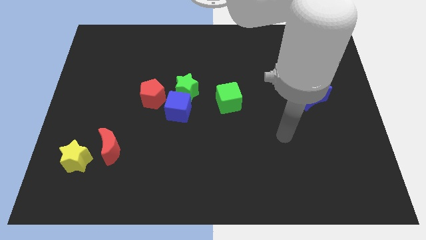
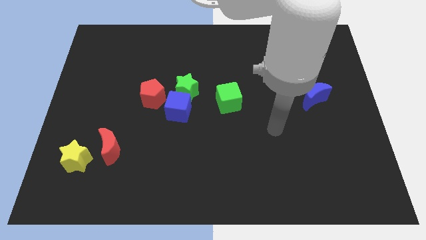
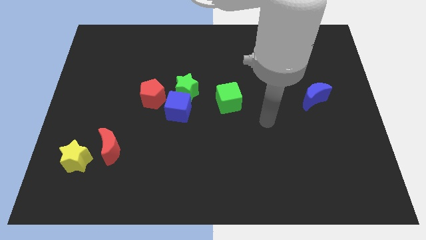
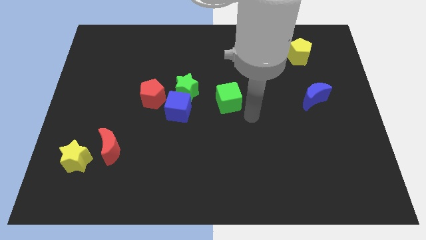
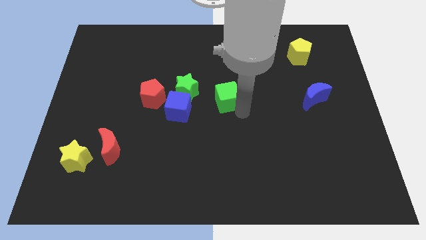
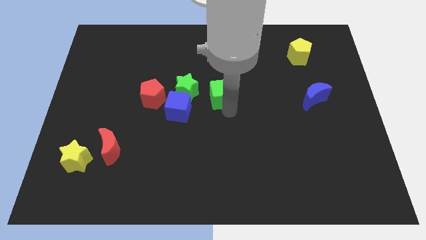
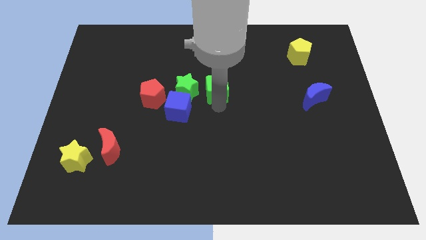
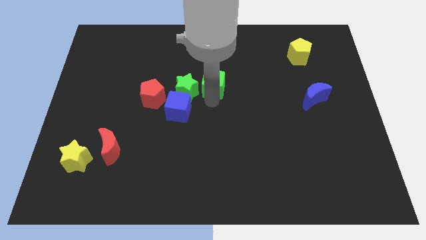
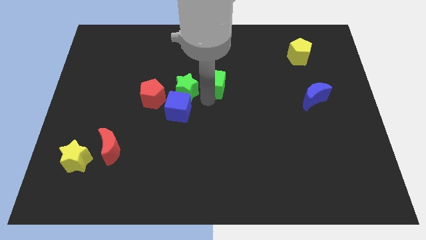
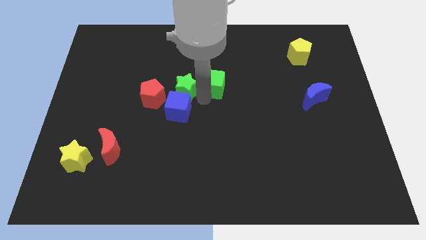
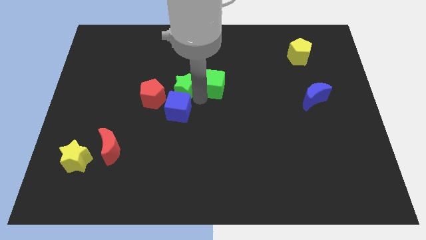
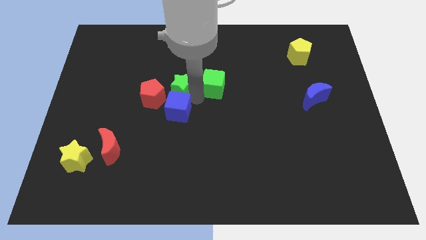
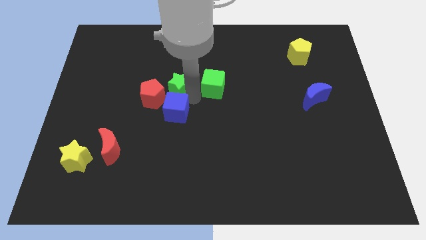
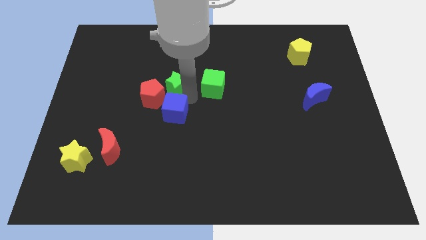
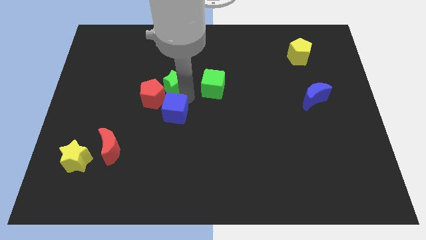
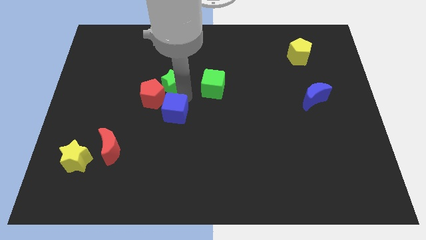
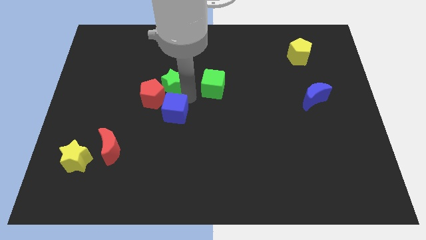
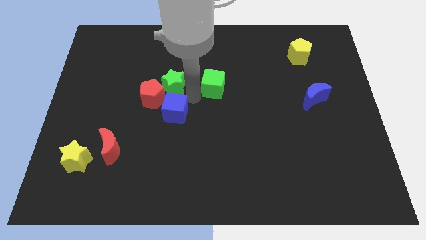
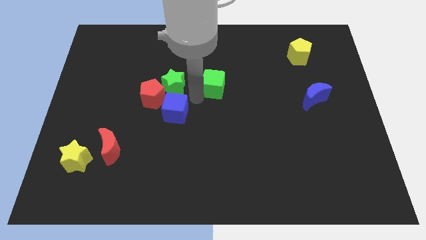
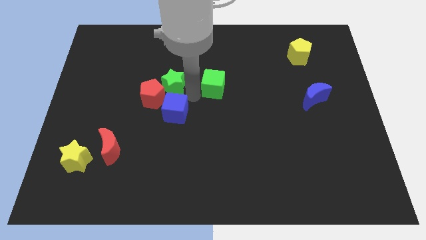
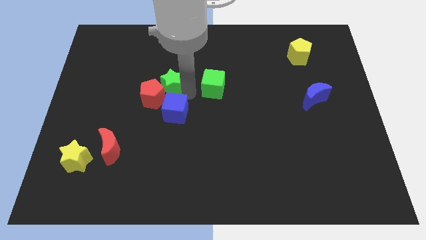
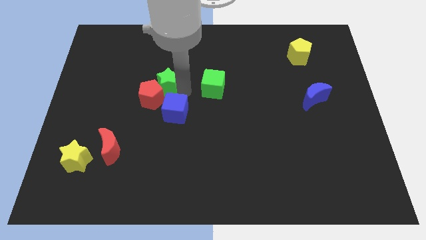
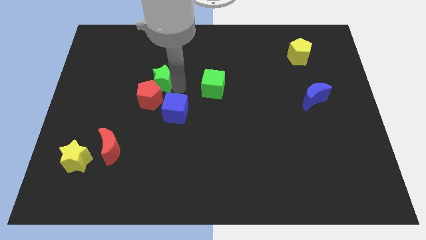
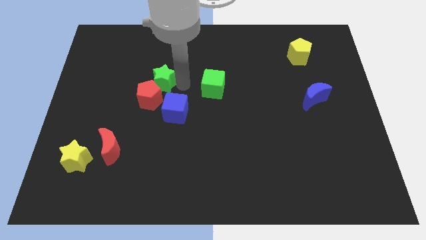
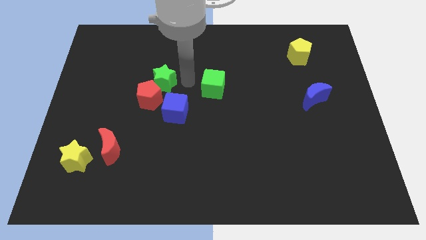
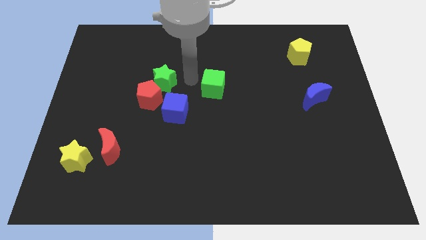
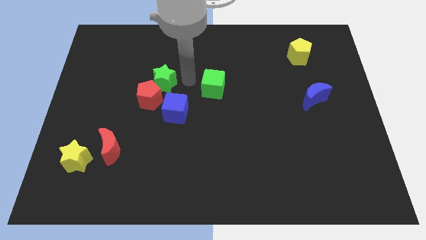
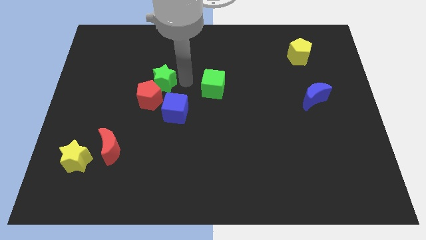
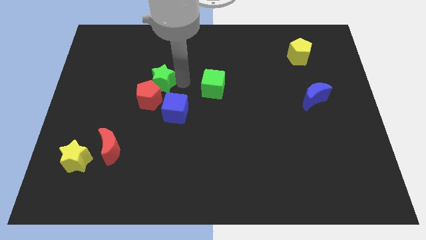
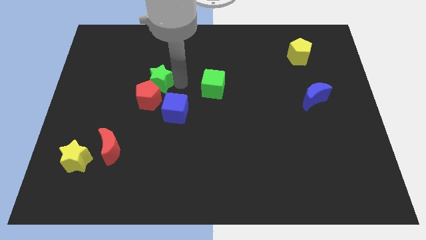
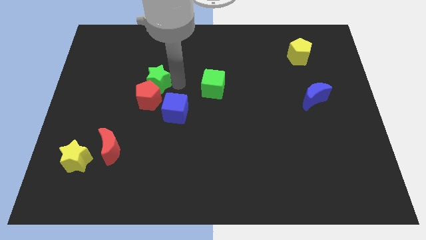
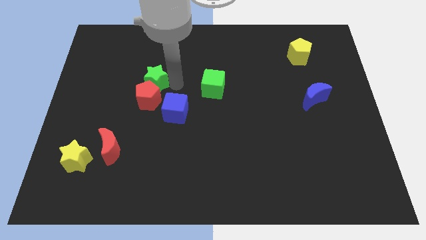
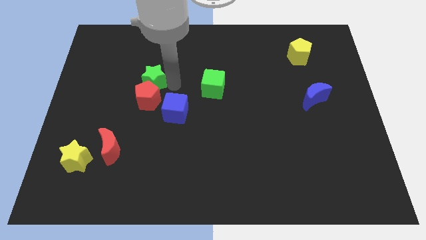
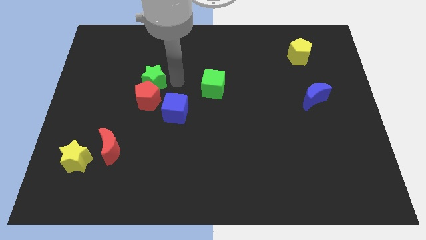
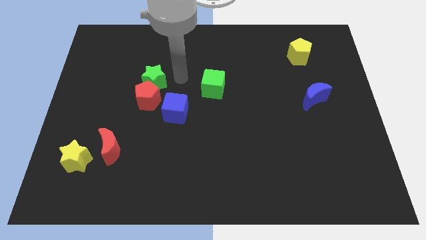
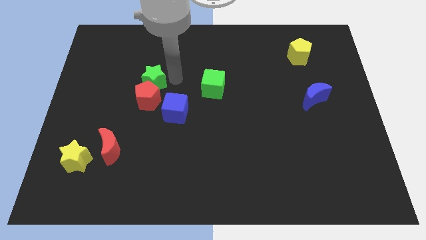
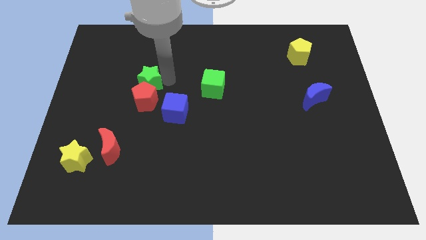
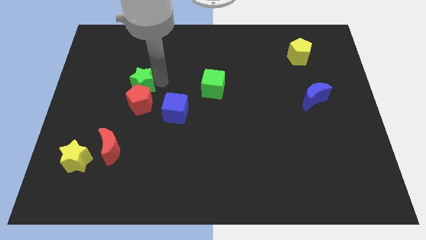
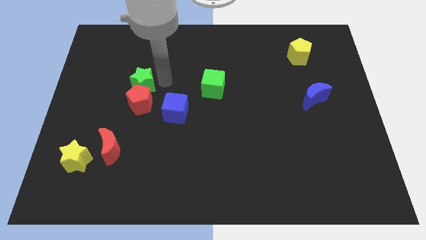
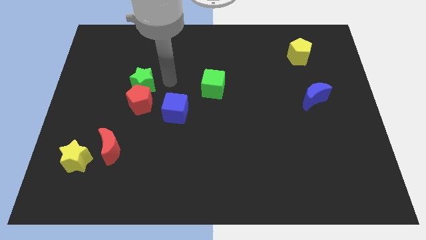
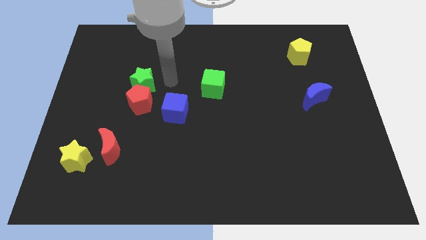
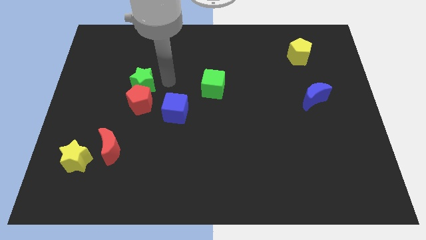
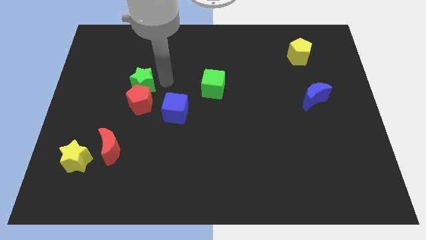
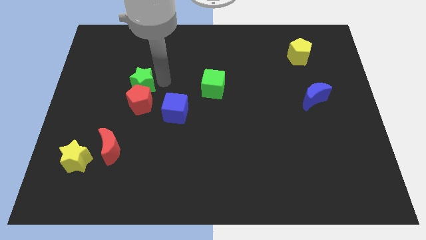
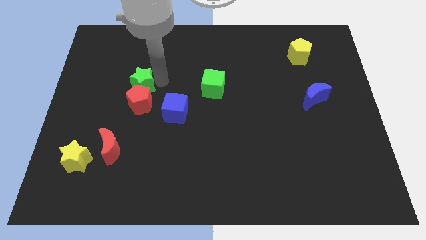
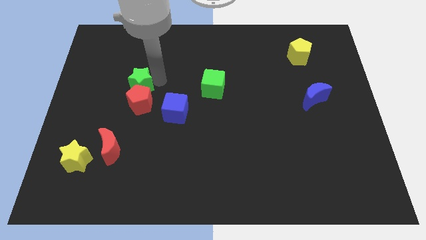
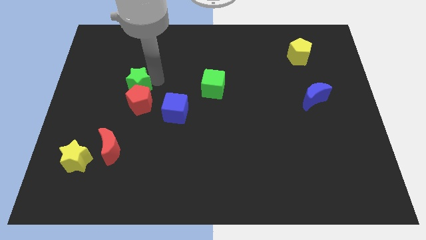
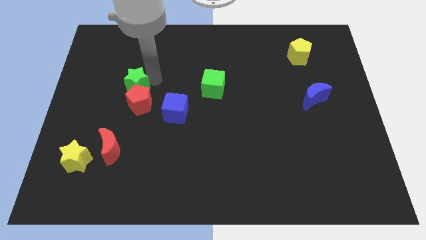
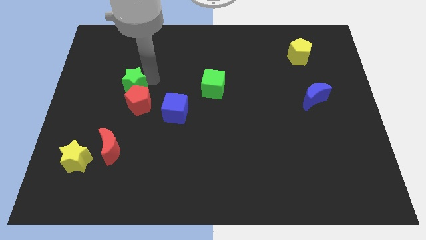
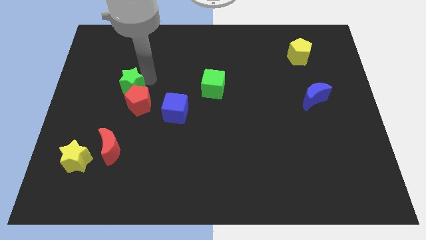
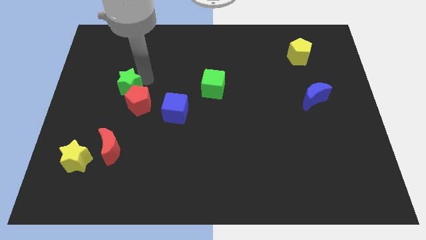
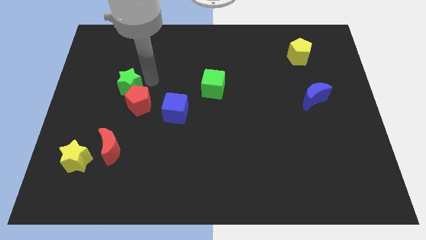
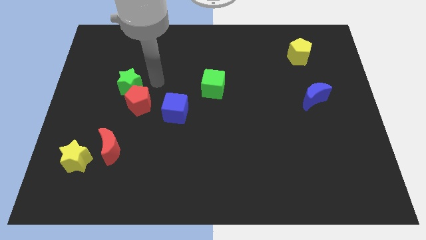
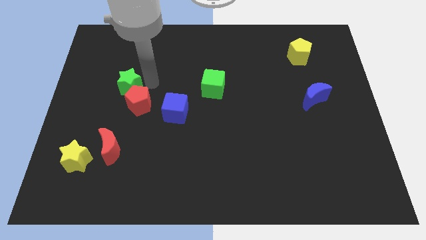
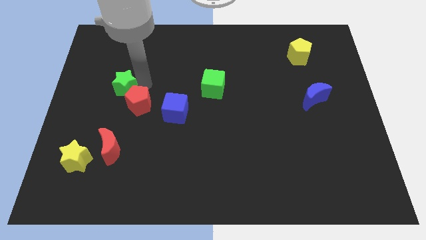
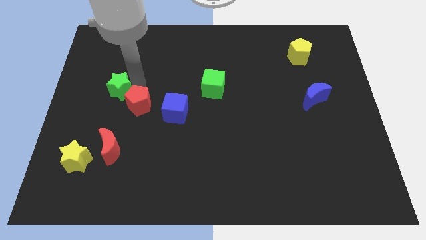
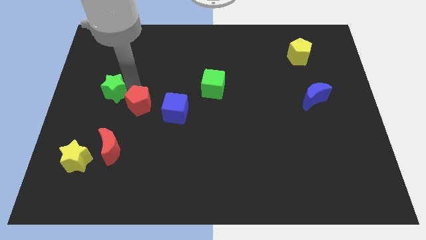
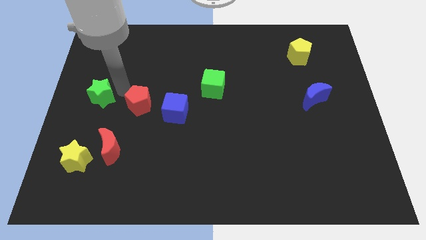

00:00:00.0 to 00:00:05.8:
slide the green star to the left side of the board
